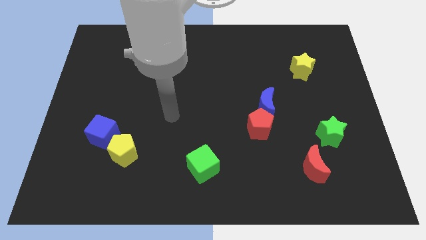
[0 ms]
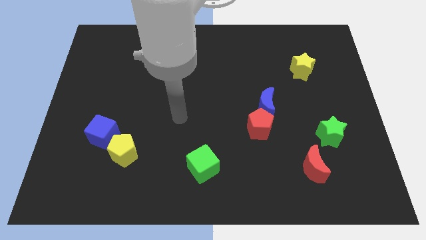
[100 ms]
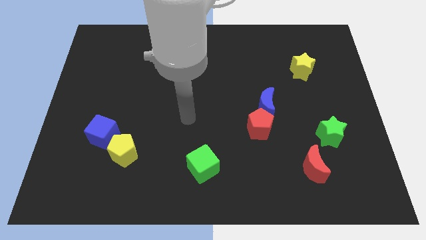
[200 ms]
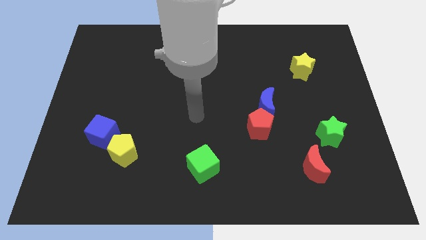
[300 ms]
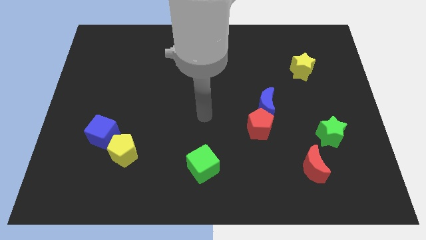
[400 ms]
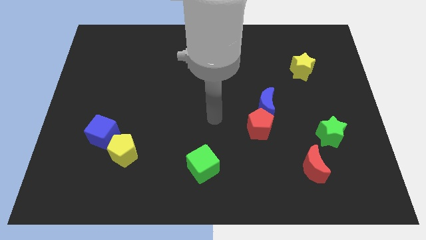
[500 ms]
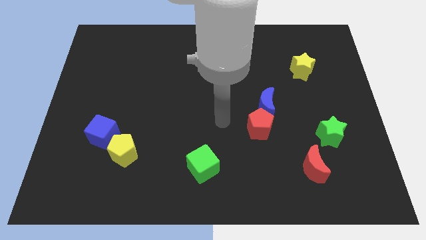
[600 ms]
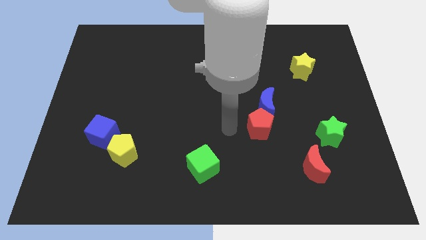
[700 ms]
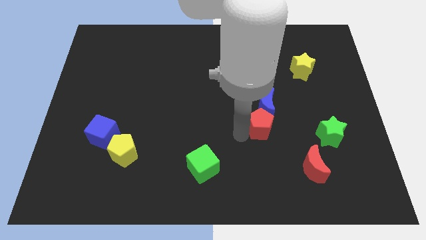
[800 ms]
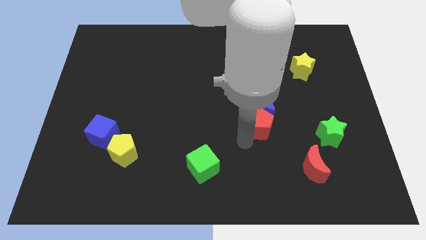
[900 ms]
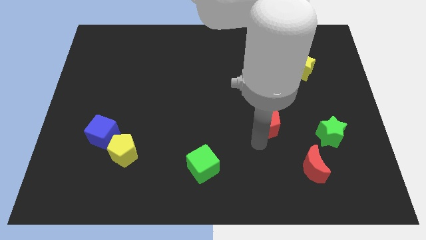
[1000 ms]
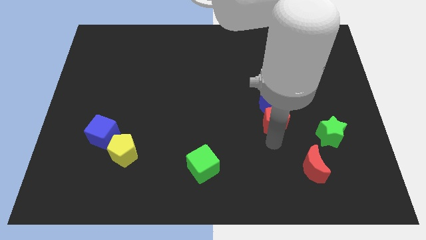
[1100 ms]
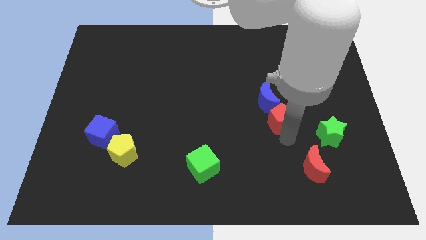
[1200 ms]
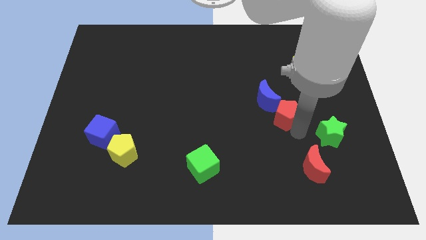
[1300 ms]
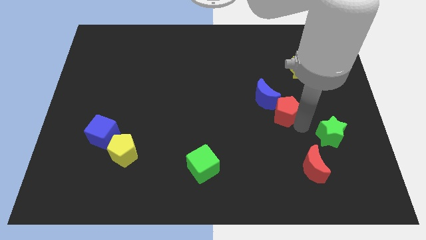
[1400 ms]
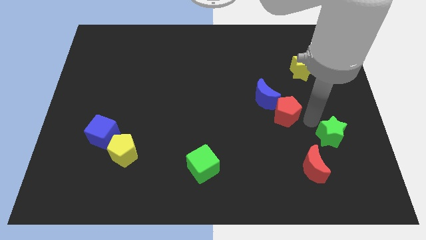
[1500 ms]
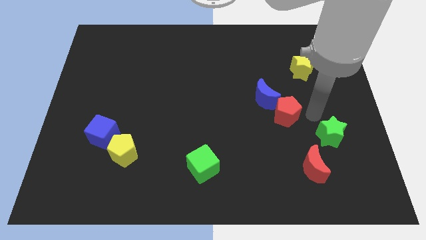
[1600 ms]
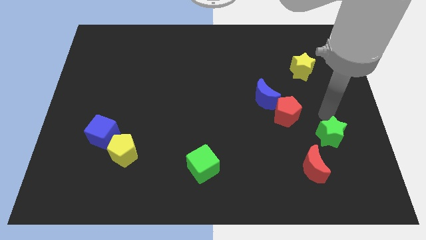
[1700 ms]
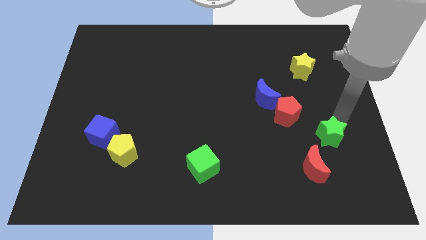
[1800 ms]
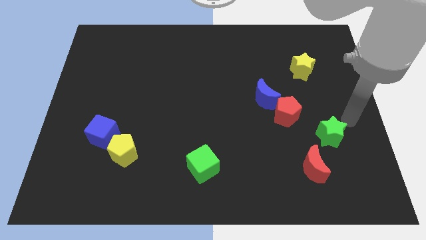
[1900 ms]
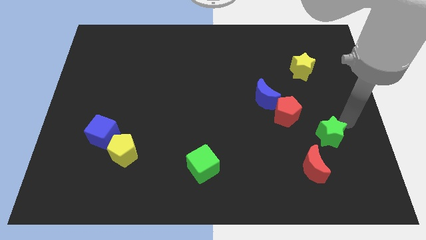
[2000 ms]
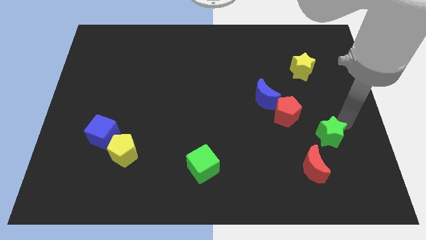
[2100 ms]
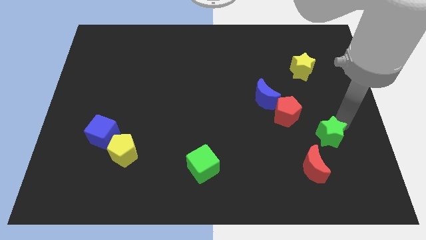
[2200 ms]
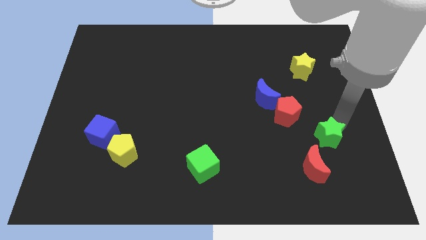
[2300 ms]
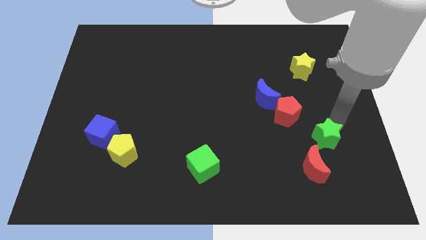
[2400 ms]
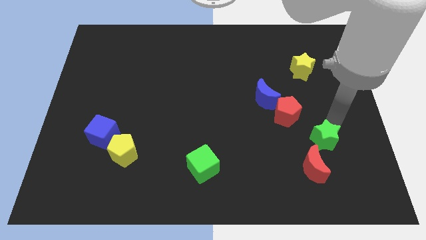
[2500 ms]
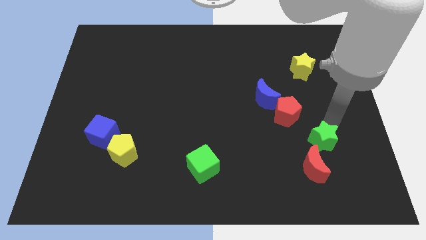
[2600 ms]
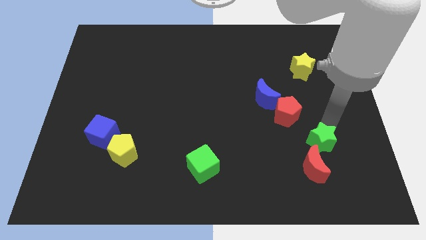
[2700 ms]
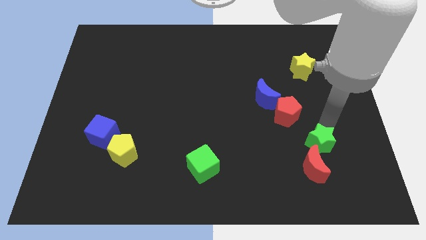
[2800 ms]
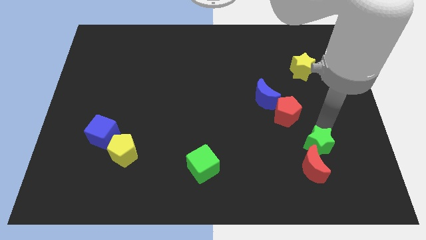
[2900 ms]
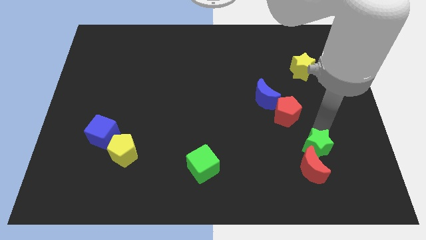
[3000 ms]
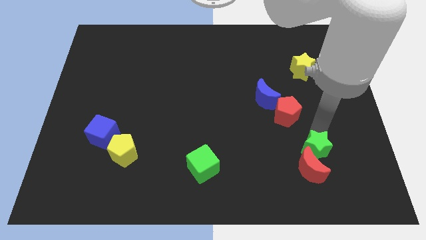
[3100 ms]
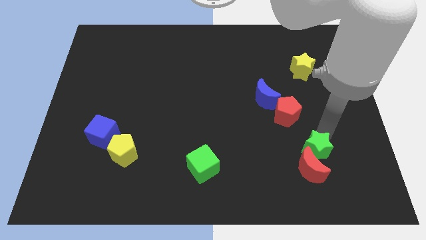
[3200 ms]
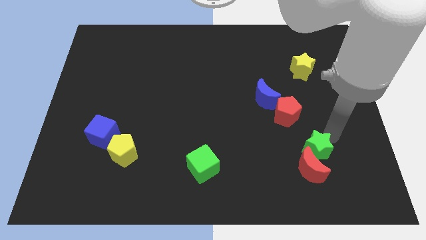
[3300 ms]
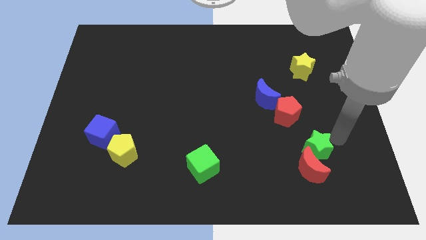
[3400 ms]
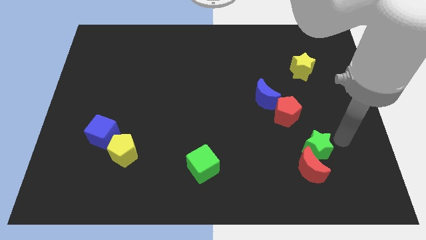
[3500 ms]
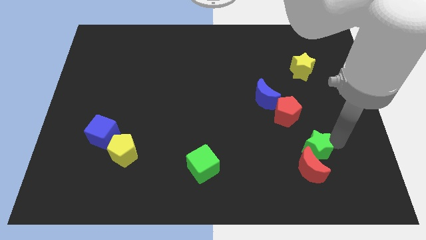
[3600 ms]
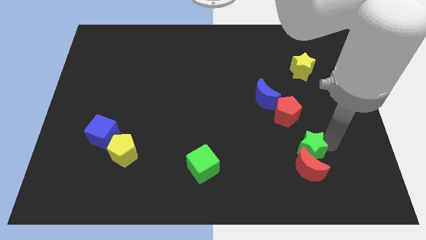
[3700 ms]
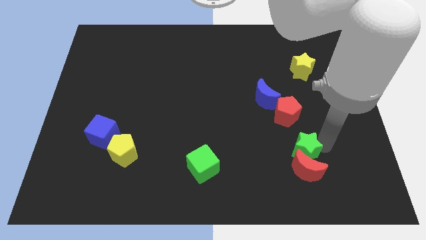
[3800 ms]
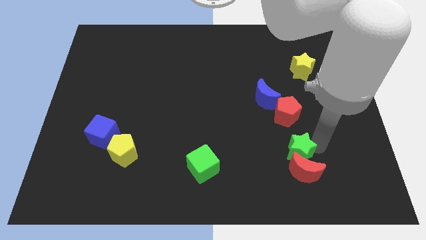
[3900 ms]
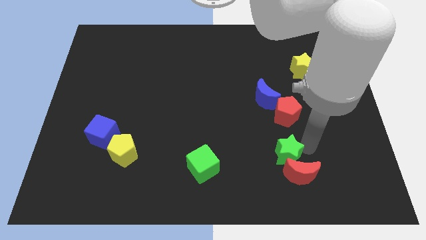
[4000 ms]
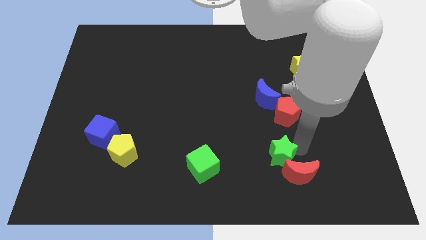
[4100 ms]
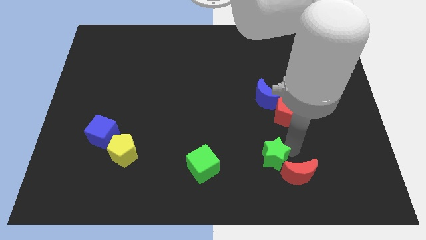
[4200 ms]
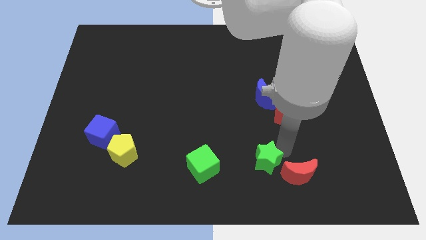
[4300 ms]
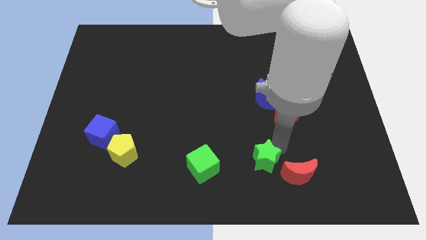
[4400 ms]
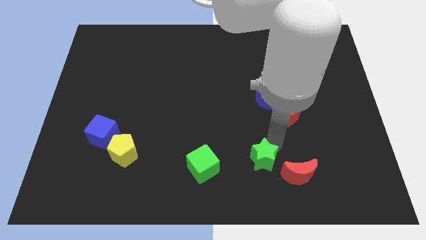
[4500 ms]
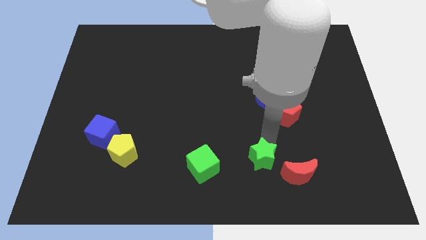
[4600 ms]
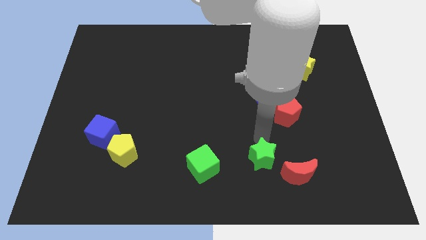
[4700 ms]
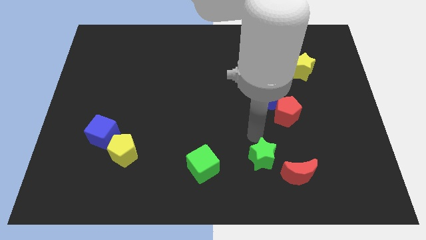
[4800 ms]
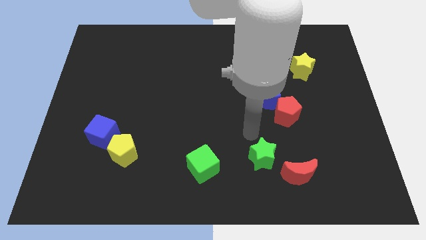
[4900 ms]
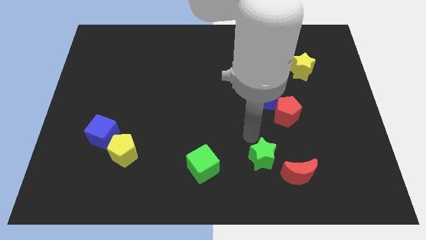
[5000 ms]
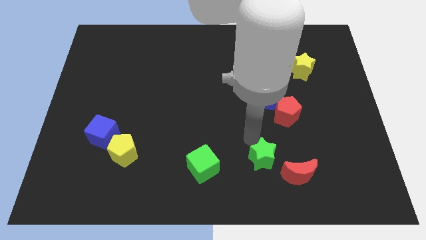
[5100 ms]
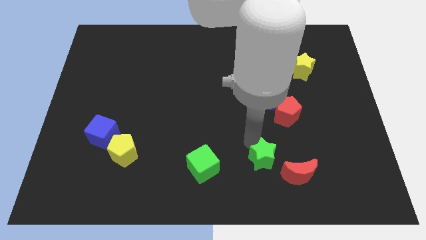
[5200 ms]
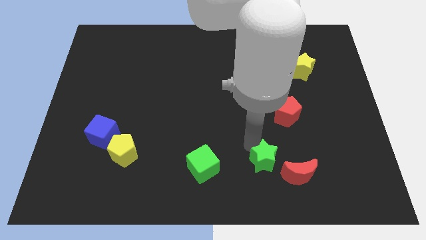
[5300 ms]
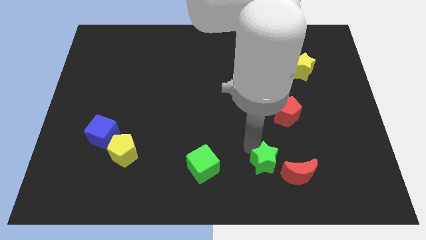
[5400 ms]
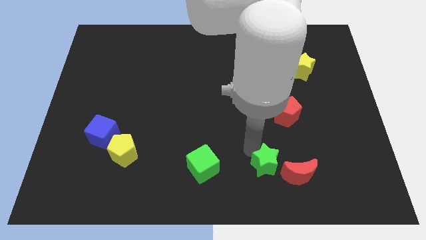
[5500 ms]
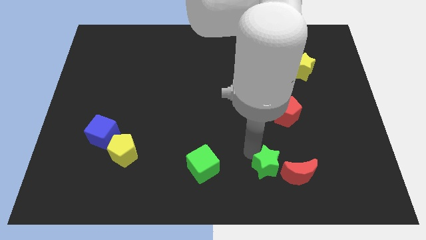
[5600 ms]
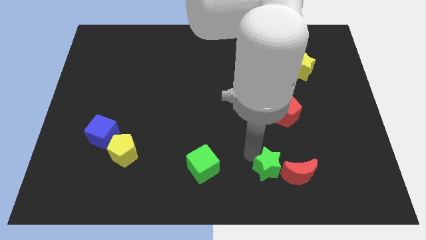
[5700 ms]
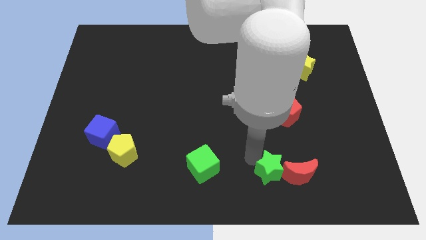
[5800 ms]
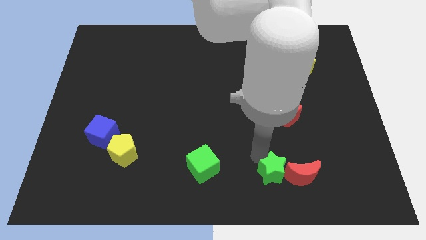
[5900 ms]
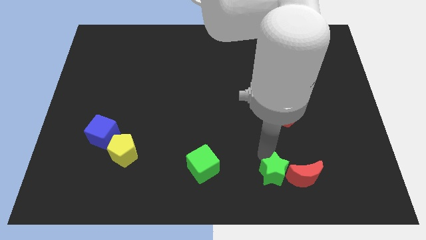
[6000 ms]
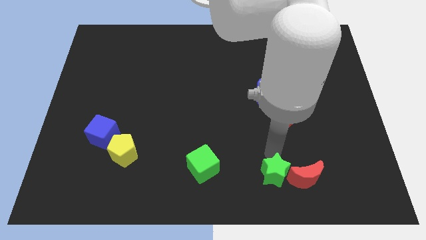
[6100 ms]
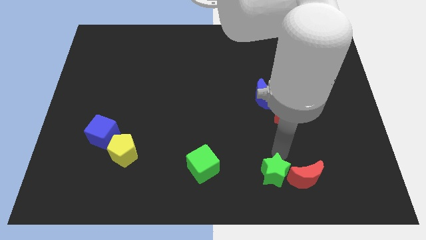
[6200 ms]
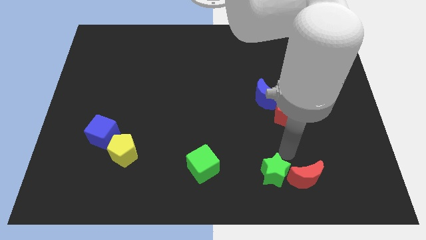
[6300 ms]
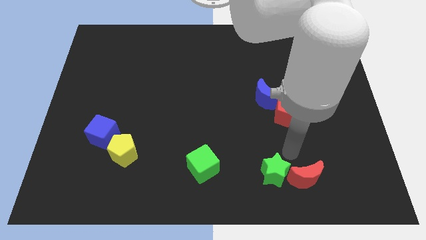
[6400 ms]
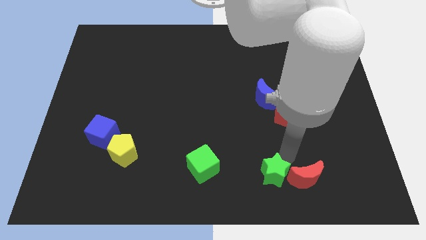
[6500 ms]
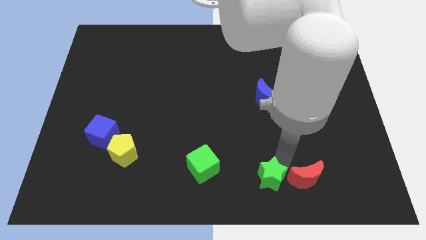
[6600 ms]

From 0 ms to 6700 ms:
push the green star to the bottom side

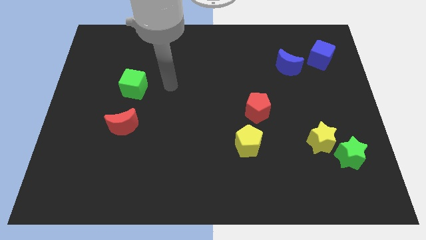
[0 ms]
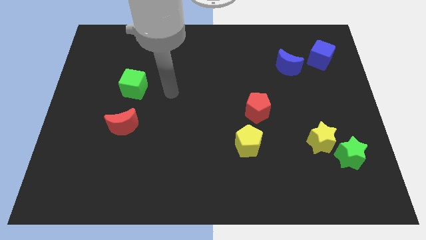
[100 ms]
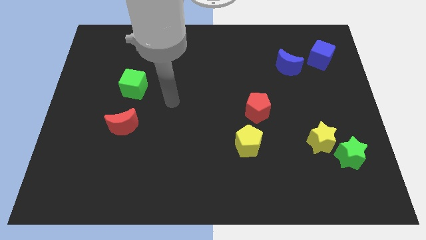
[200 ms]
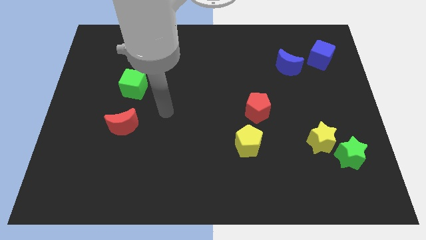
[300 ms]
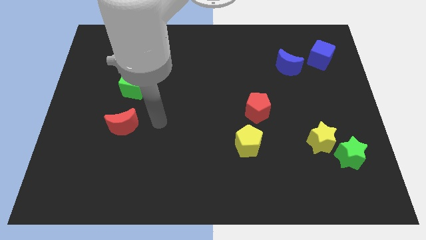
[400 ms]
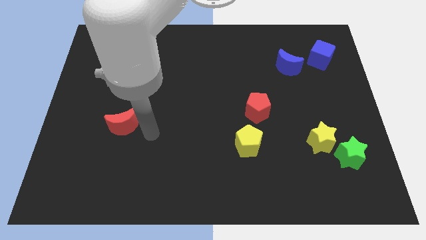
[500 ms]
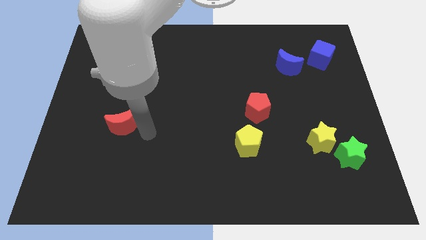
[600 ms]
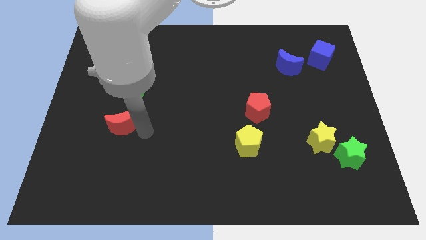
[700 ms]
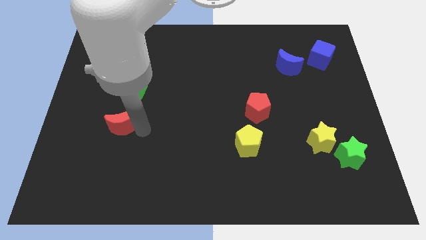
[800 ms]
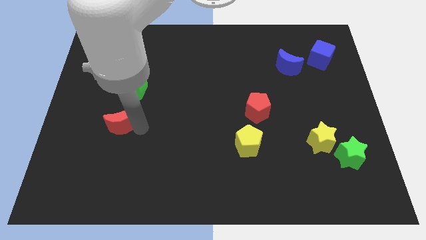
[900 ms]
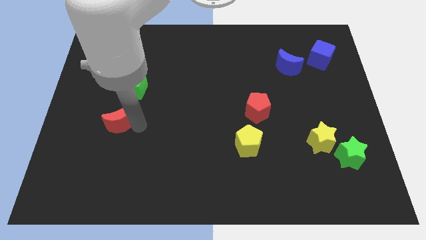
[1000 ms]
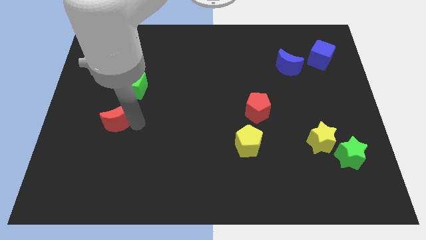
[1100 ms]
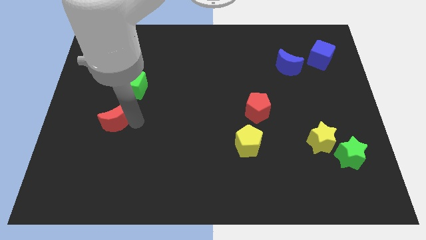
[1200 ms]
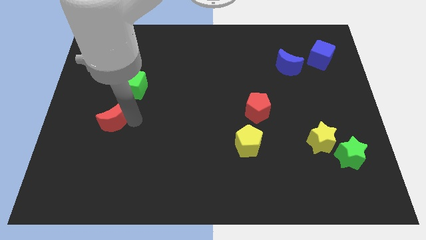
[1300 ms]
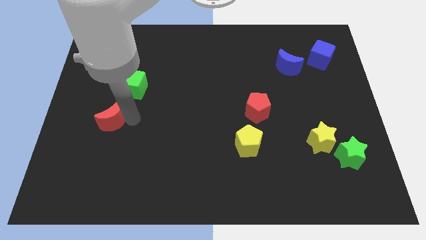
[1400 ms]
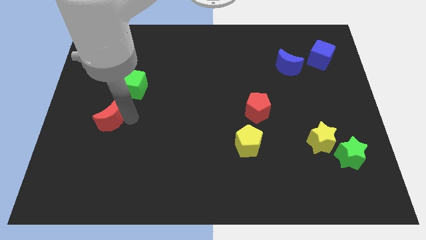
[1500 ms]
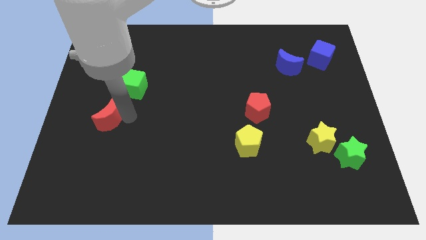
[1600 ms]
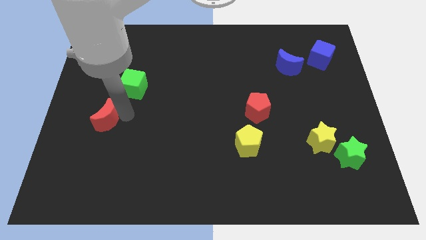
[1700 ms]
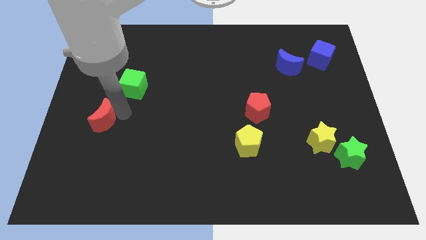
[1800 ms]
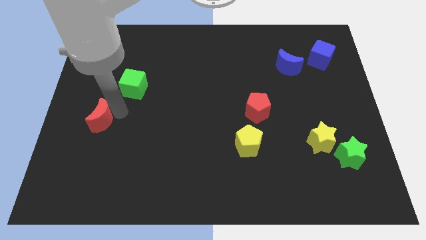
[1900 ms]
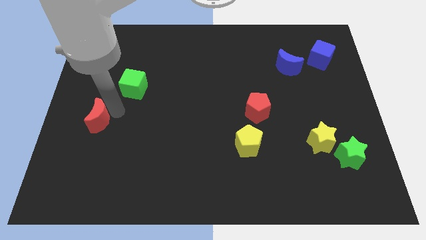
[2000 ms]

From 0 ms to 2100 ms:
move the red moon to the left side
